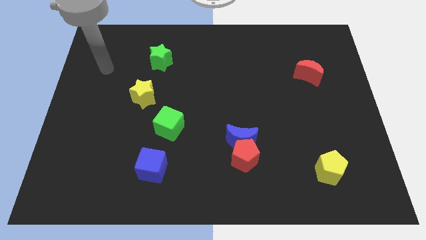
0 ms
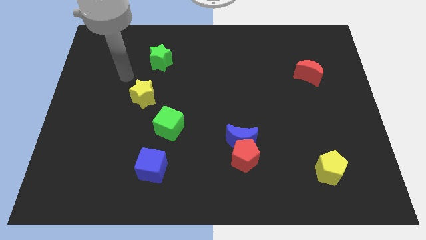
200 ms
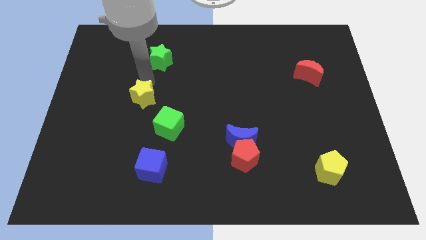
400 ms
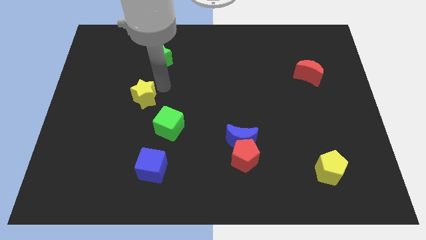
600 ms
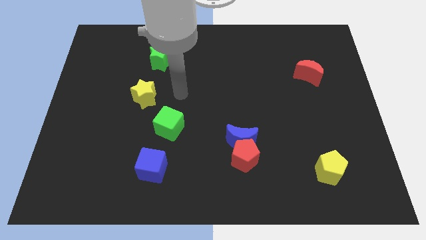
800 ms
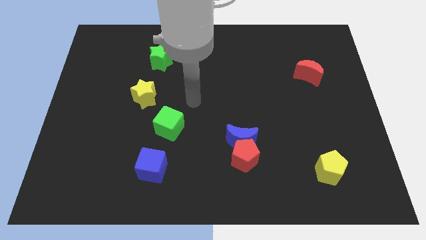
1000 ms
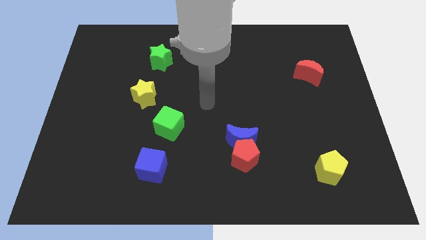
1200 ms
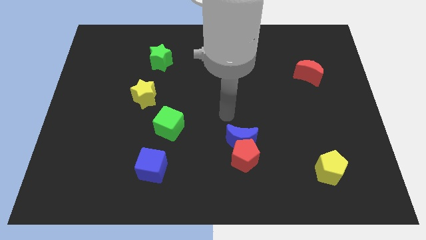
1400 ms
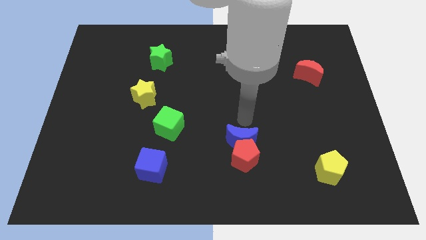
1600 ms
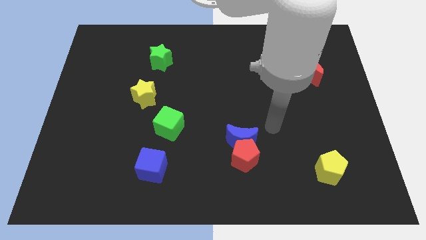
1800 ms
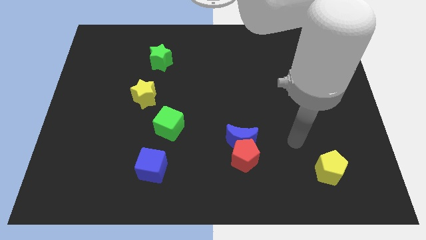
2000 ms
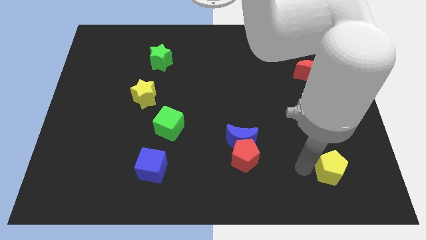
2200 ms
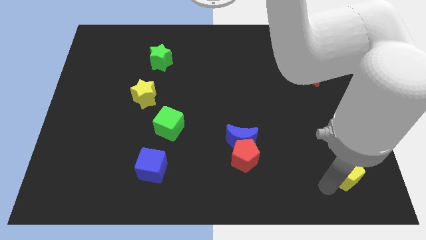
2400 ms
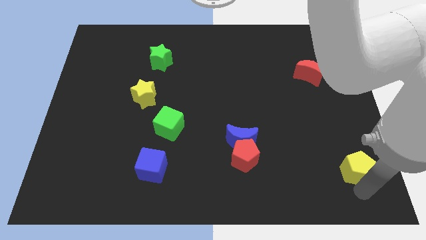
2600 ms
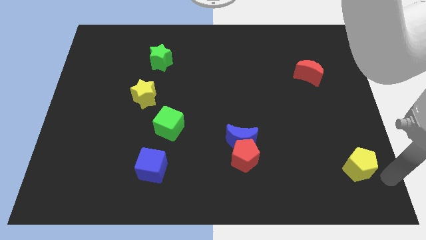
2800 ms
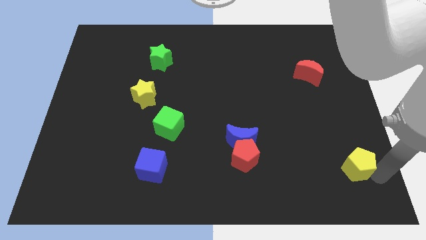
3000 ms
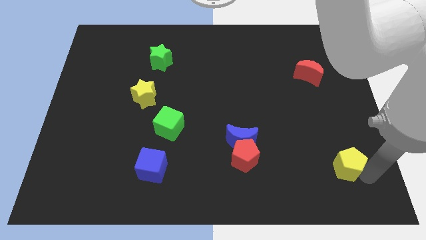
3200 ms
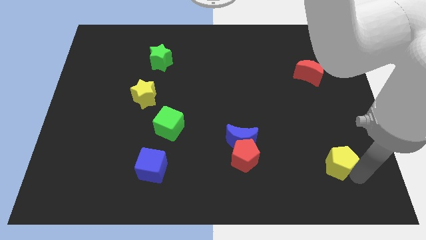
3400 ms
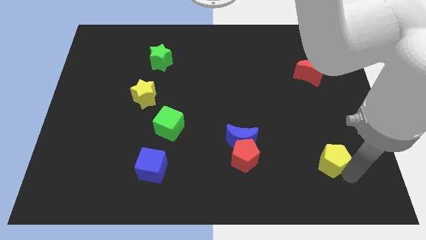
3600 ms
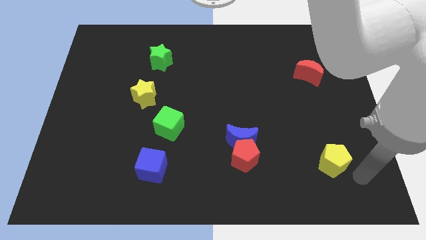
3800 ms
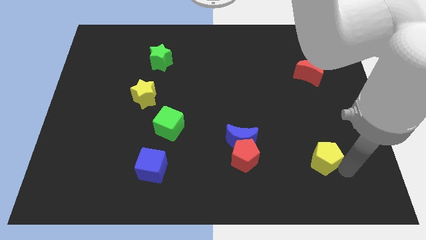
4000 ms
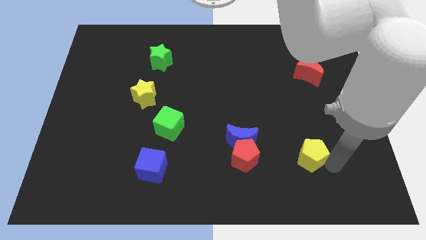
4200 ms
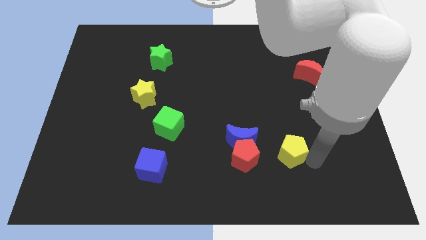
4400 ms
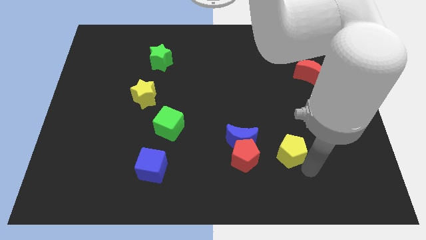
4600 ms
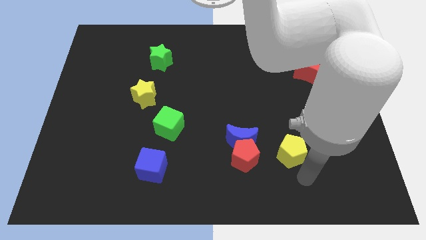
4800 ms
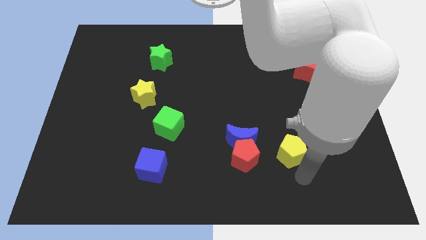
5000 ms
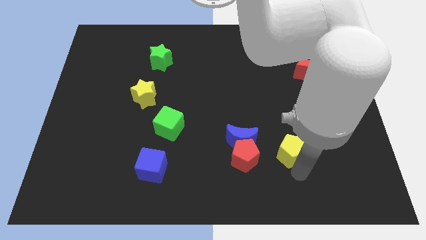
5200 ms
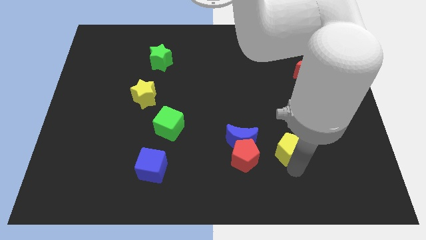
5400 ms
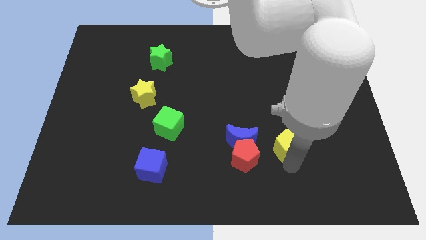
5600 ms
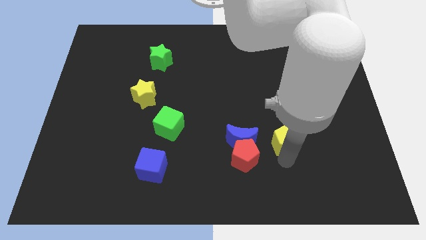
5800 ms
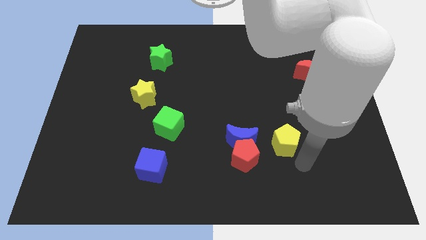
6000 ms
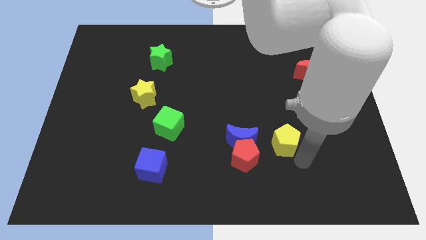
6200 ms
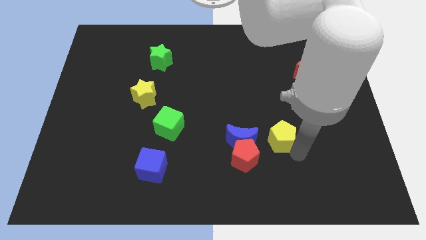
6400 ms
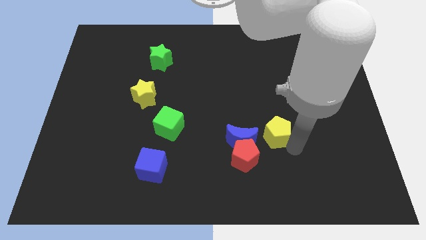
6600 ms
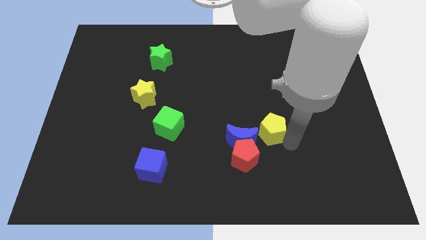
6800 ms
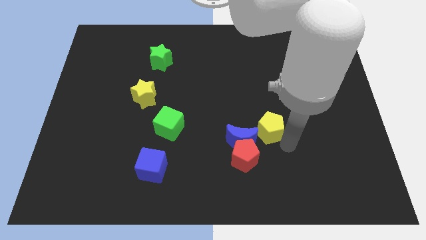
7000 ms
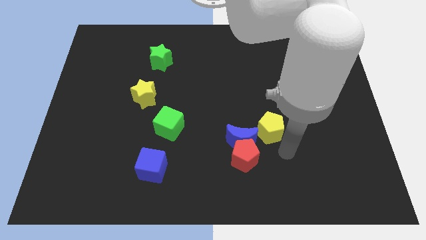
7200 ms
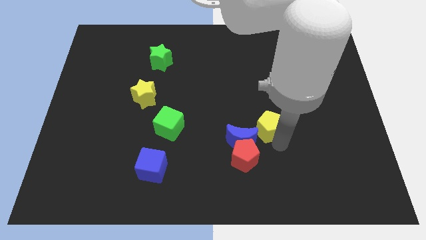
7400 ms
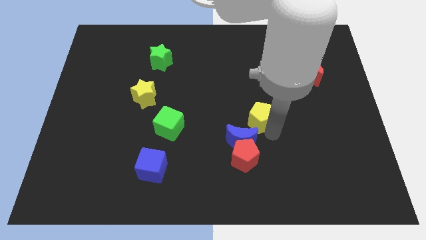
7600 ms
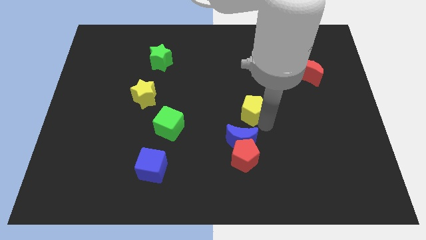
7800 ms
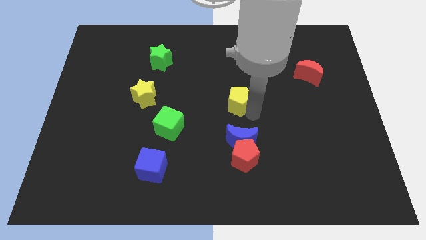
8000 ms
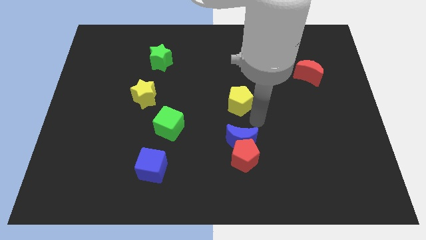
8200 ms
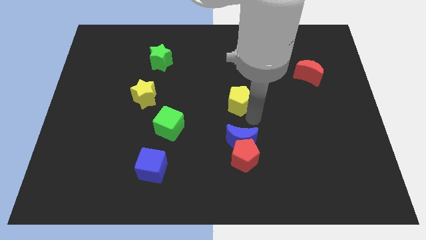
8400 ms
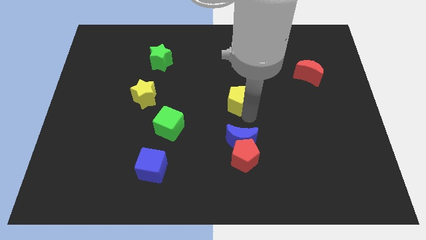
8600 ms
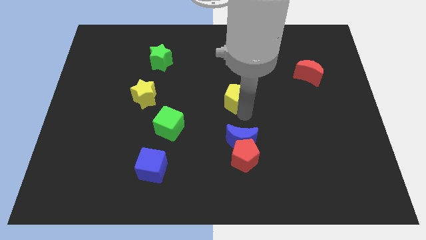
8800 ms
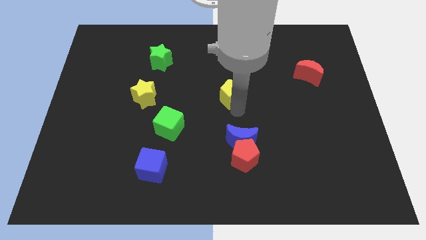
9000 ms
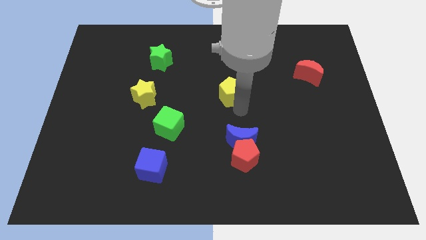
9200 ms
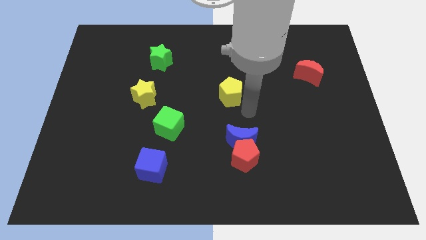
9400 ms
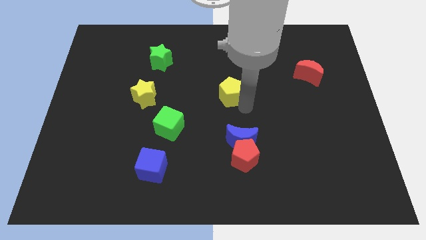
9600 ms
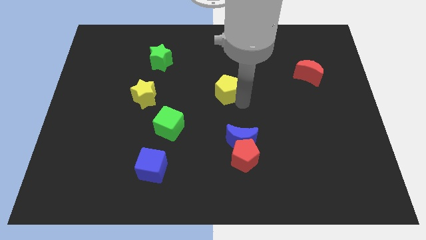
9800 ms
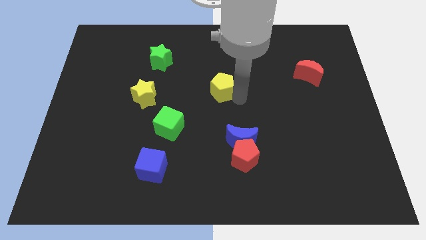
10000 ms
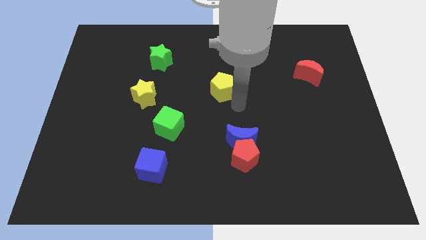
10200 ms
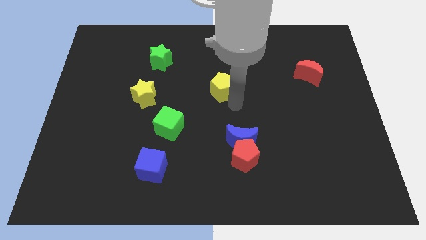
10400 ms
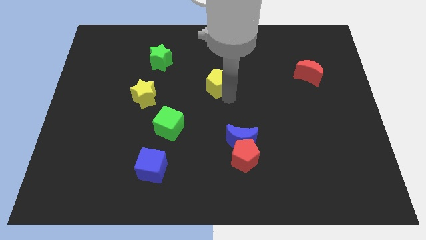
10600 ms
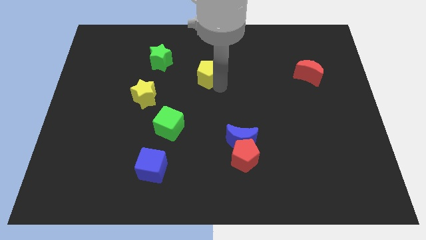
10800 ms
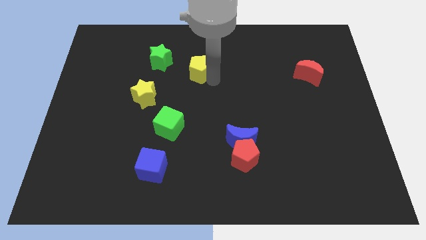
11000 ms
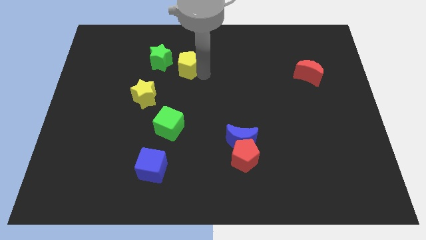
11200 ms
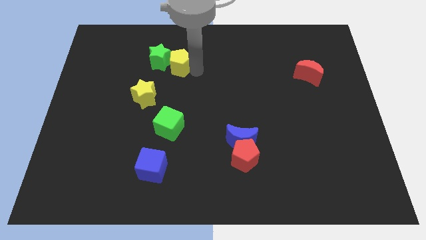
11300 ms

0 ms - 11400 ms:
move the yellow pentagon next to the green star

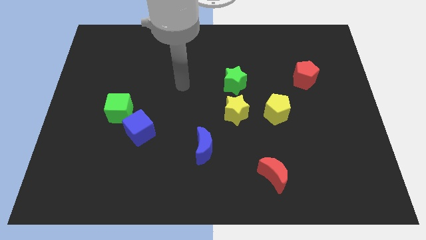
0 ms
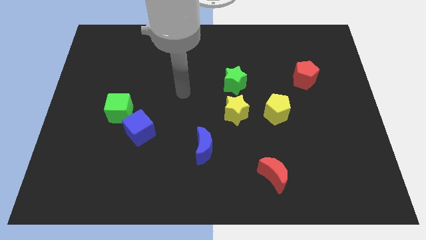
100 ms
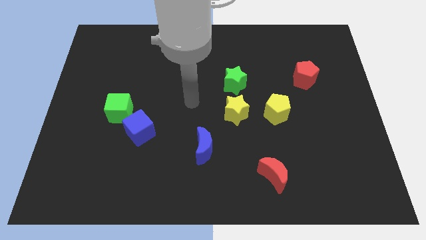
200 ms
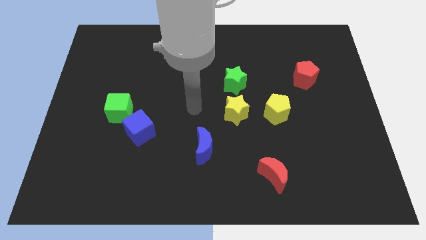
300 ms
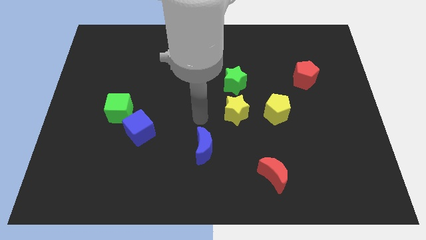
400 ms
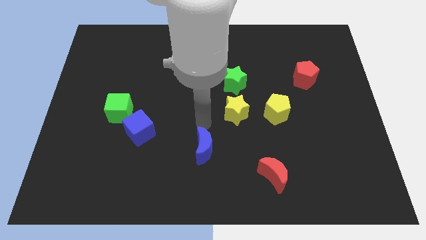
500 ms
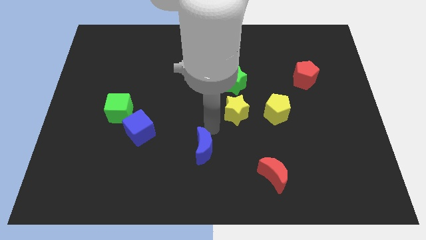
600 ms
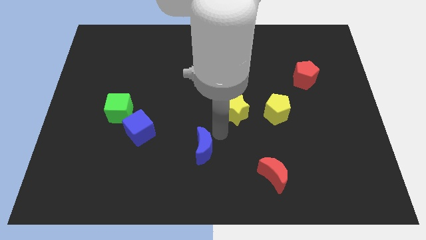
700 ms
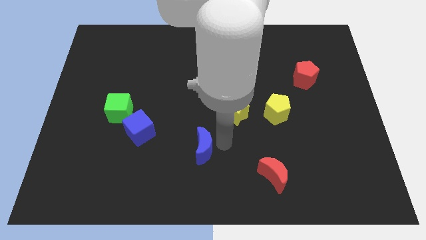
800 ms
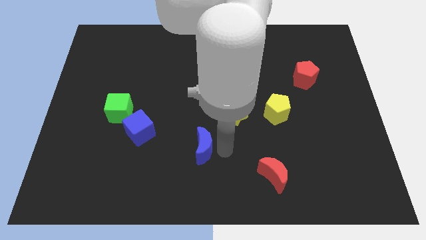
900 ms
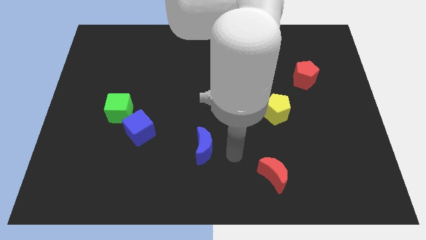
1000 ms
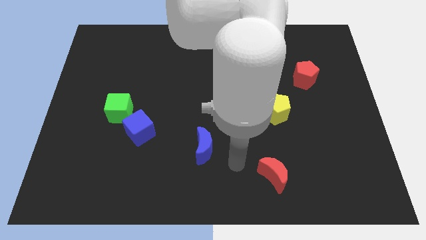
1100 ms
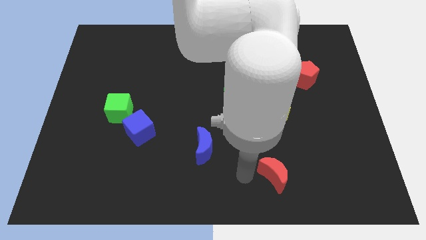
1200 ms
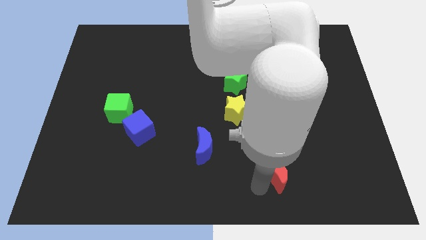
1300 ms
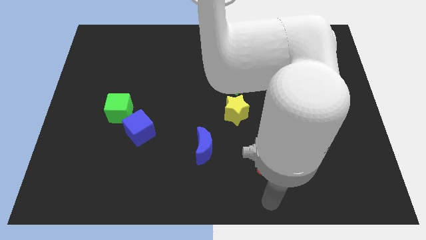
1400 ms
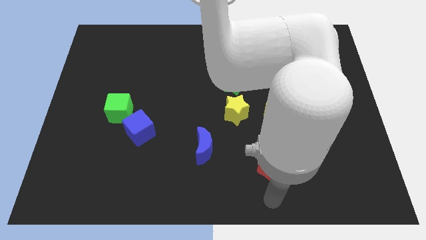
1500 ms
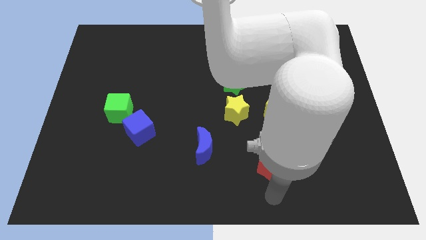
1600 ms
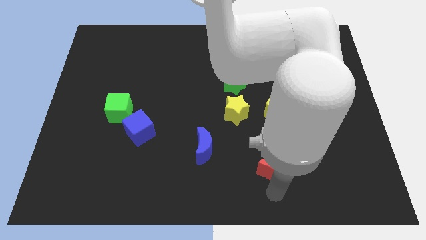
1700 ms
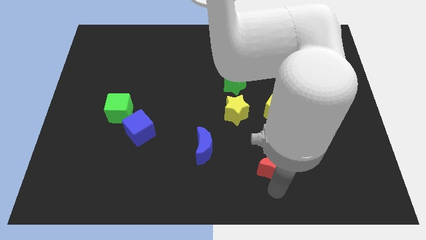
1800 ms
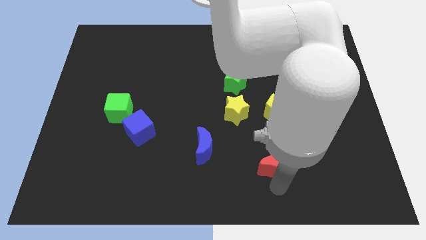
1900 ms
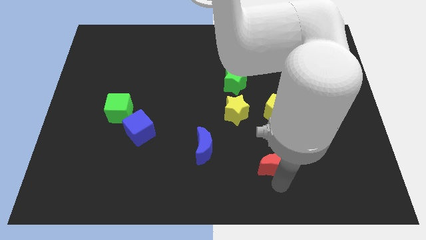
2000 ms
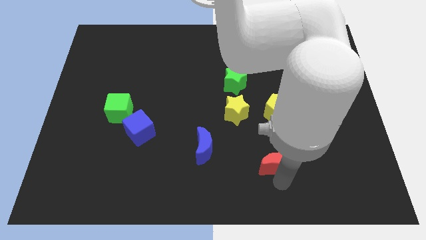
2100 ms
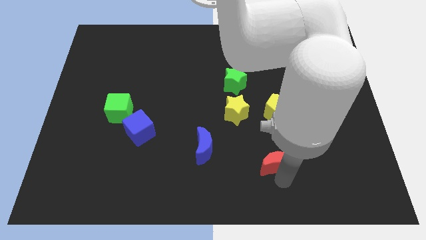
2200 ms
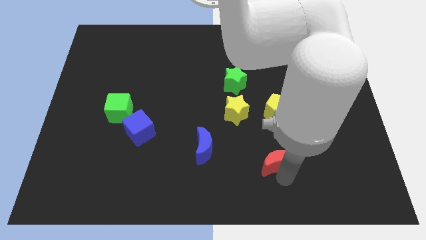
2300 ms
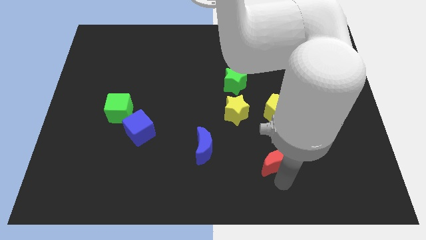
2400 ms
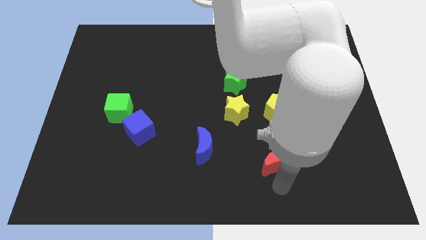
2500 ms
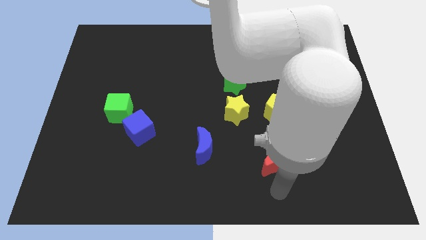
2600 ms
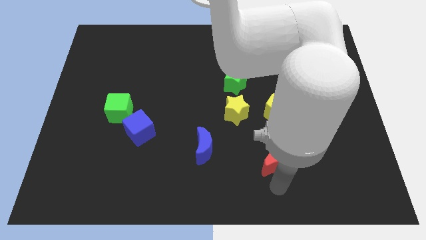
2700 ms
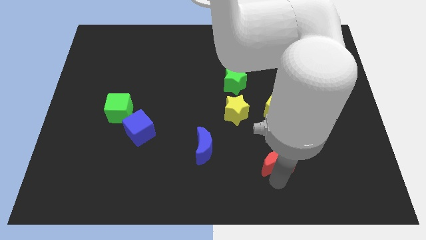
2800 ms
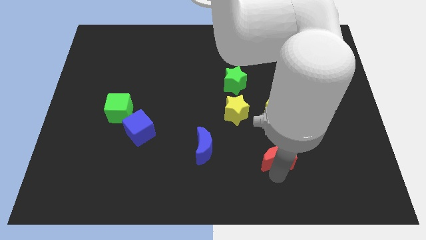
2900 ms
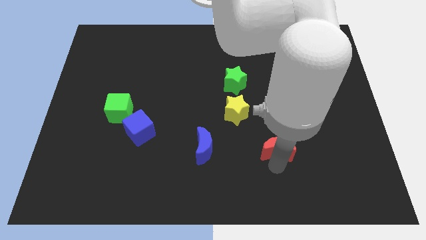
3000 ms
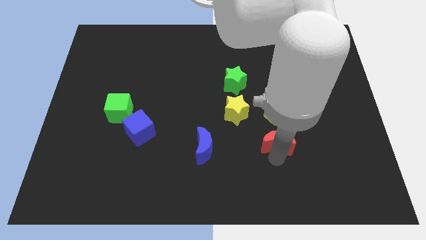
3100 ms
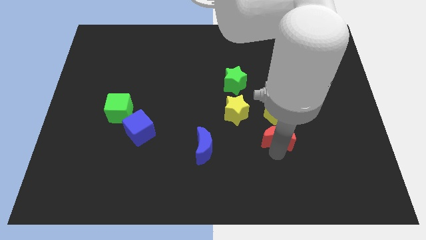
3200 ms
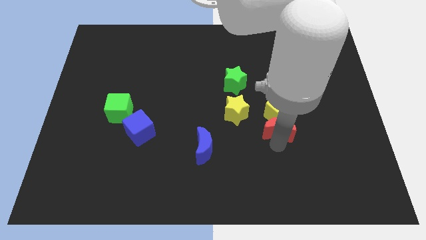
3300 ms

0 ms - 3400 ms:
slide the red moon next to the yellow pentagon
